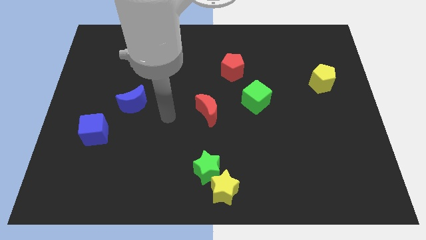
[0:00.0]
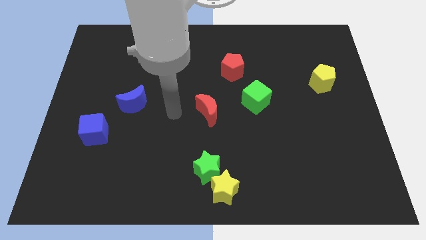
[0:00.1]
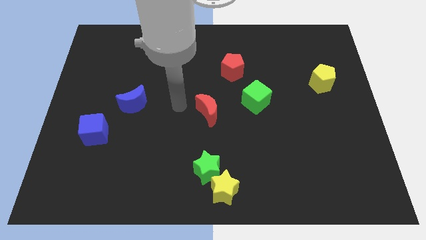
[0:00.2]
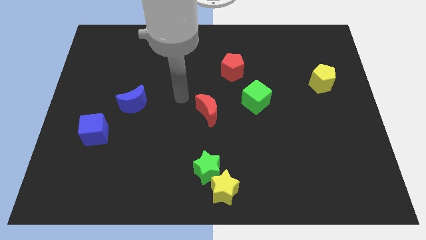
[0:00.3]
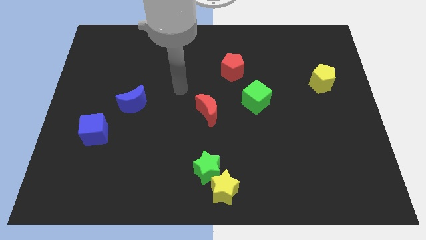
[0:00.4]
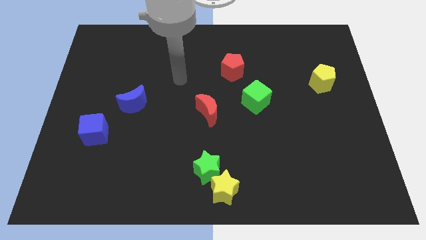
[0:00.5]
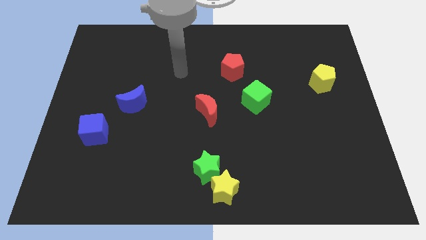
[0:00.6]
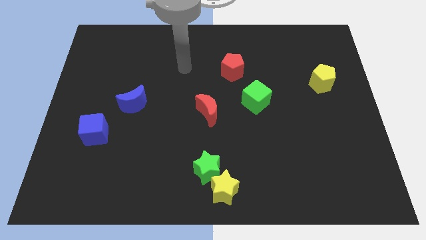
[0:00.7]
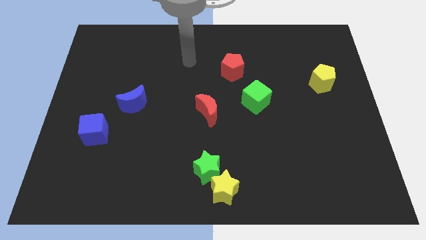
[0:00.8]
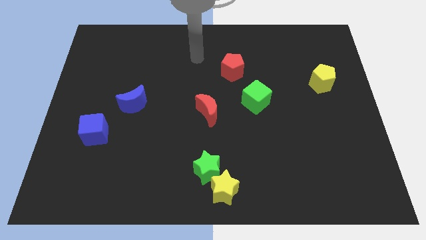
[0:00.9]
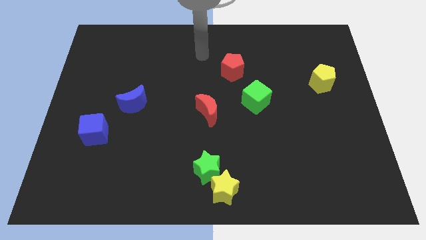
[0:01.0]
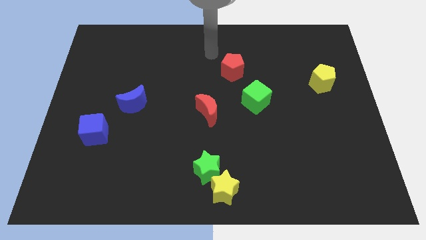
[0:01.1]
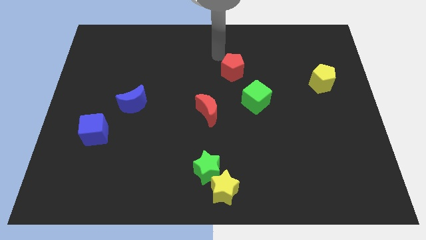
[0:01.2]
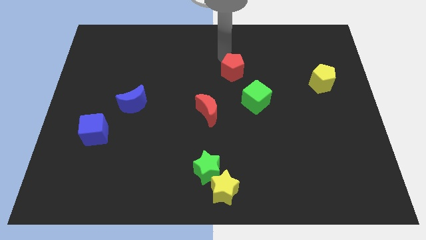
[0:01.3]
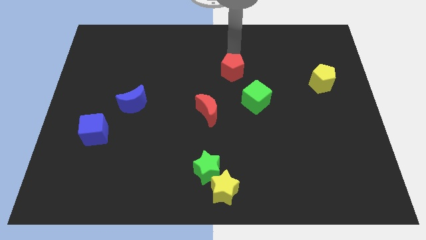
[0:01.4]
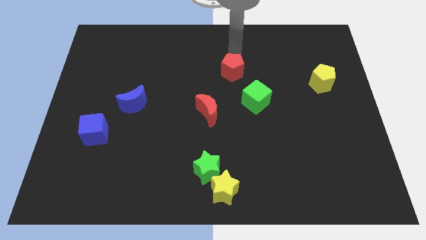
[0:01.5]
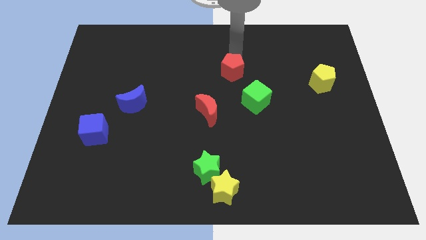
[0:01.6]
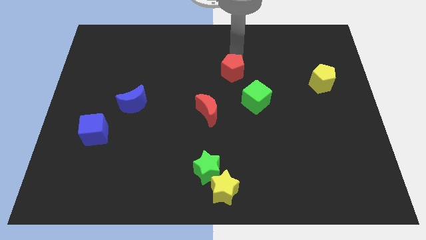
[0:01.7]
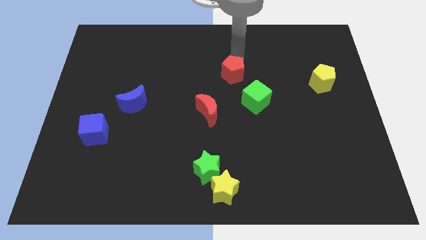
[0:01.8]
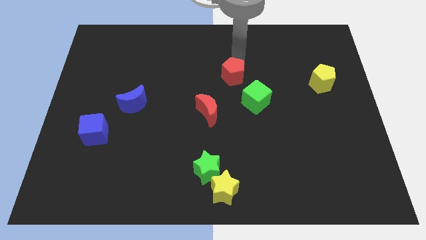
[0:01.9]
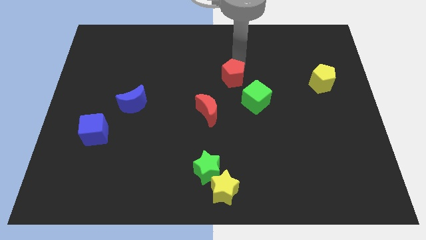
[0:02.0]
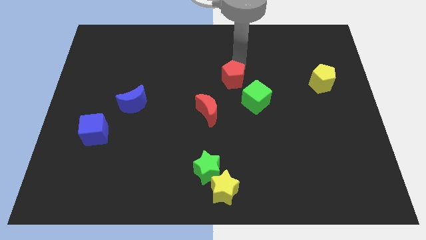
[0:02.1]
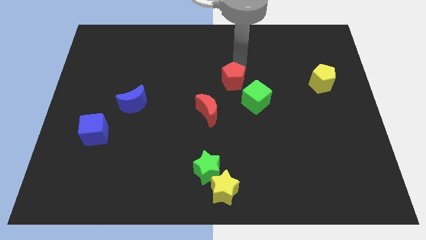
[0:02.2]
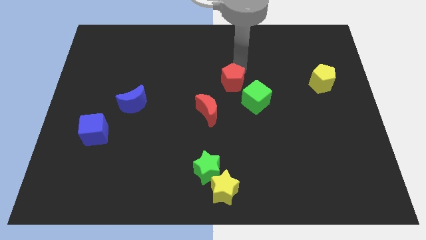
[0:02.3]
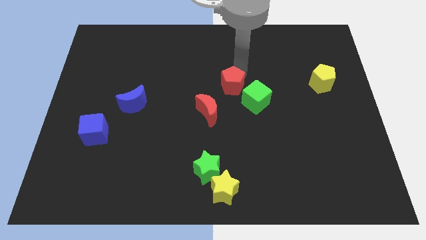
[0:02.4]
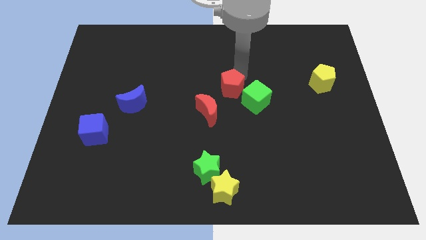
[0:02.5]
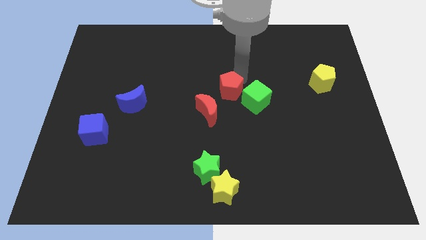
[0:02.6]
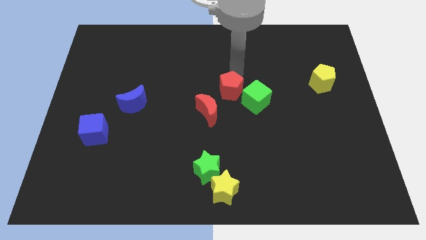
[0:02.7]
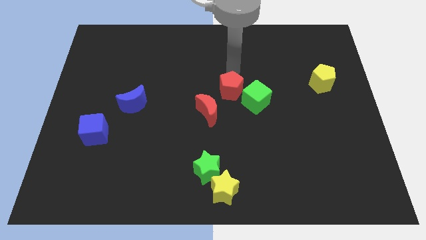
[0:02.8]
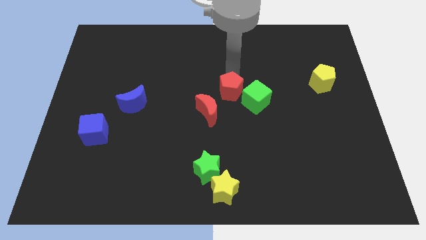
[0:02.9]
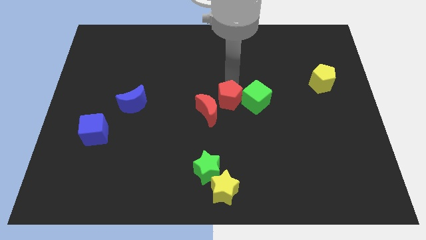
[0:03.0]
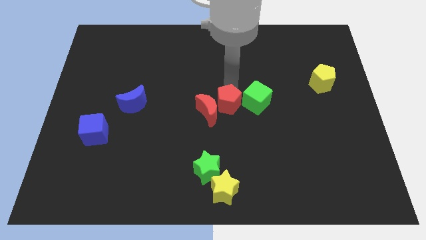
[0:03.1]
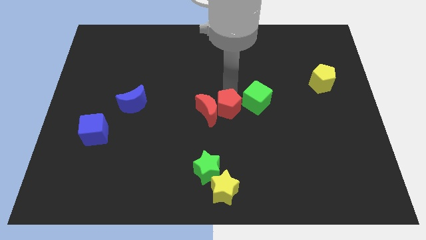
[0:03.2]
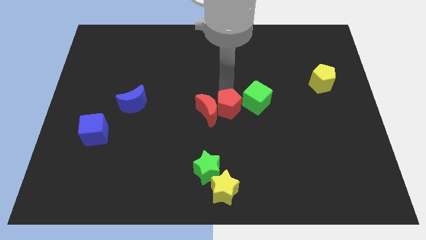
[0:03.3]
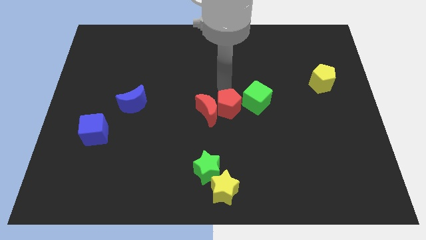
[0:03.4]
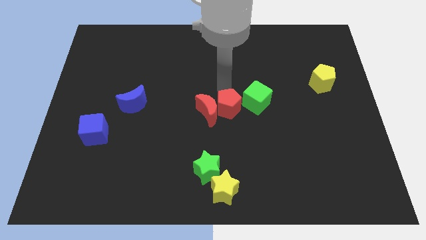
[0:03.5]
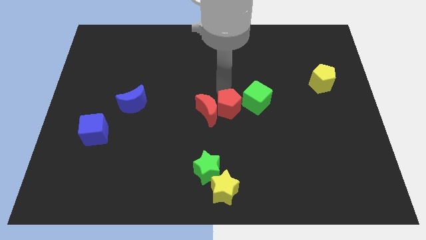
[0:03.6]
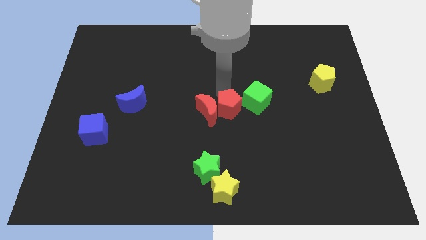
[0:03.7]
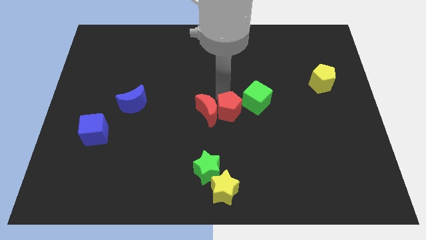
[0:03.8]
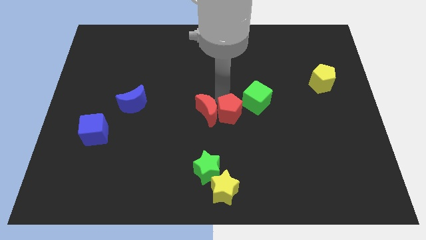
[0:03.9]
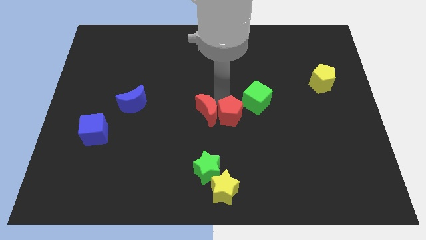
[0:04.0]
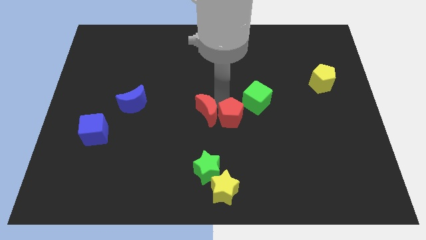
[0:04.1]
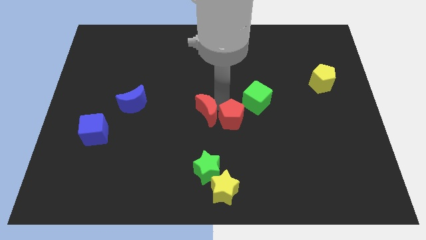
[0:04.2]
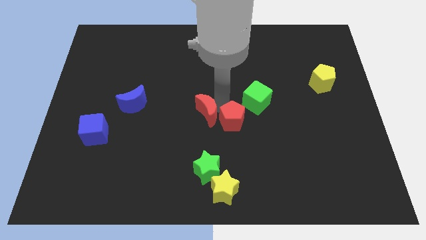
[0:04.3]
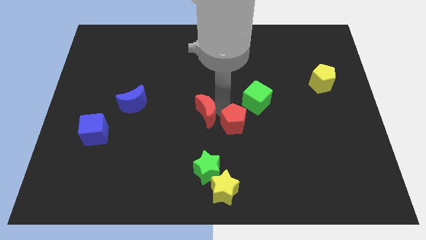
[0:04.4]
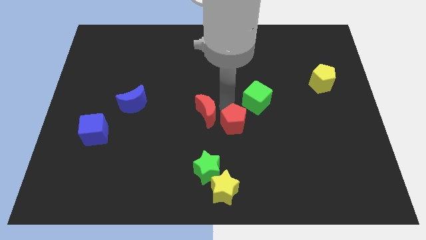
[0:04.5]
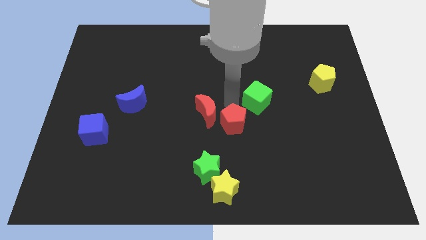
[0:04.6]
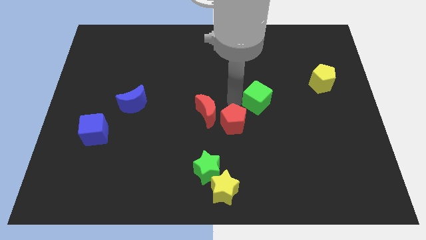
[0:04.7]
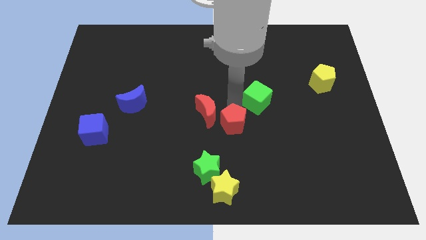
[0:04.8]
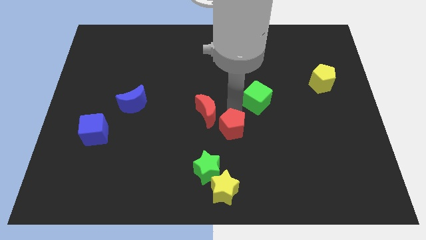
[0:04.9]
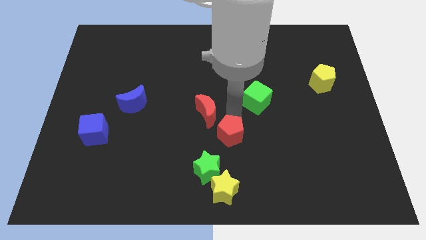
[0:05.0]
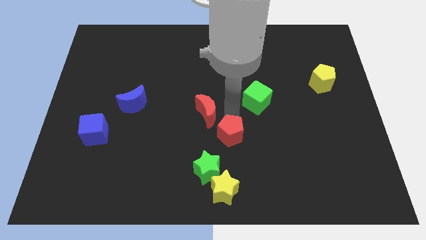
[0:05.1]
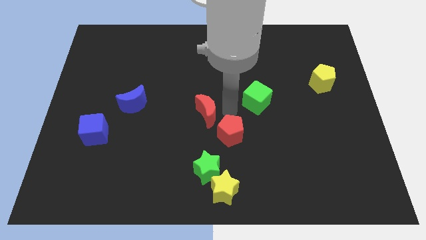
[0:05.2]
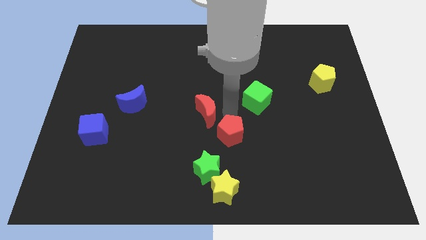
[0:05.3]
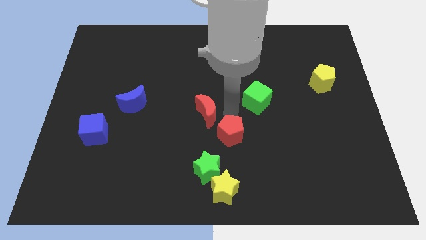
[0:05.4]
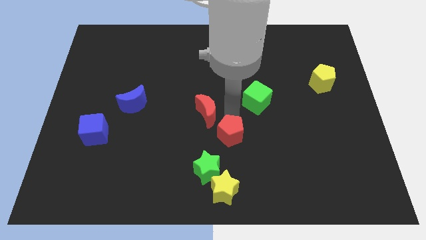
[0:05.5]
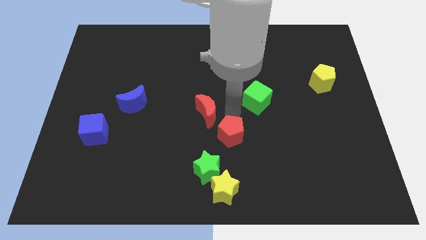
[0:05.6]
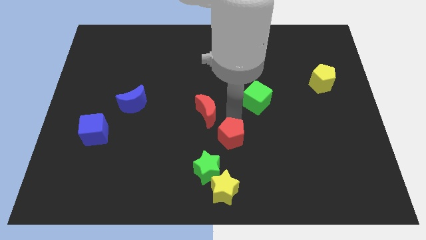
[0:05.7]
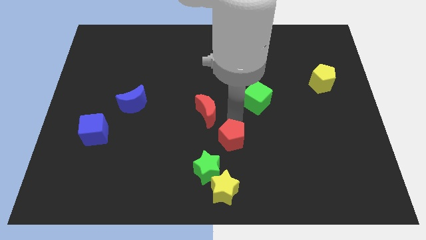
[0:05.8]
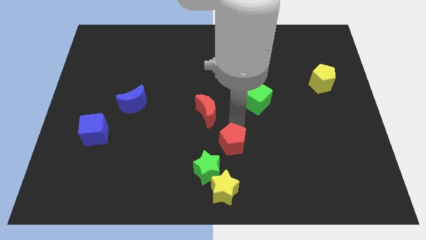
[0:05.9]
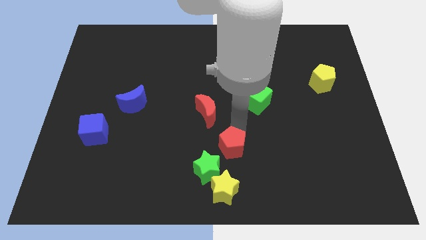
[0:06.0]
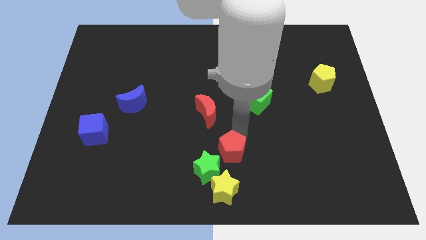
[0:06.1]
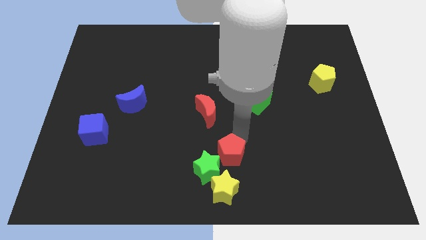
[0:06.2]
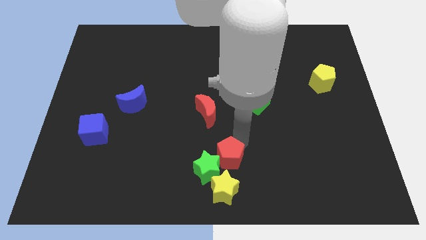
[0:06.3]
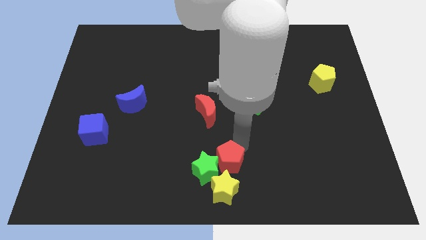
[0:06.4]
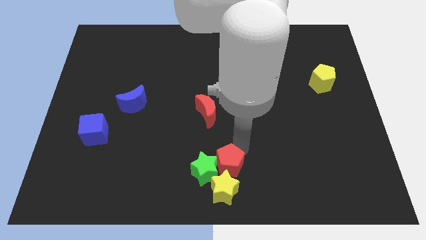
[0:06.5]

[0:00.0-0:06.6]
slide the red pentagon to the yellow star

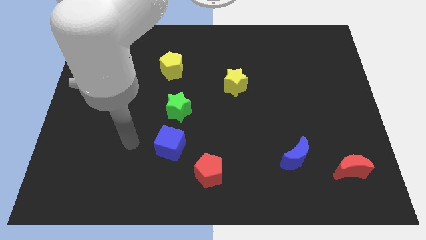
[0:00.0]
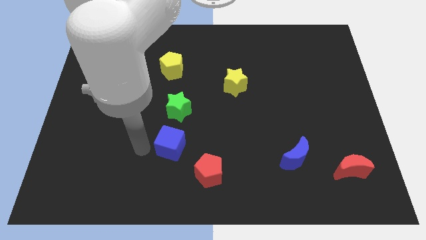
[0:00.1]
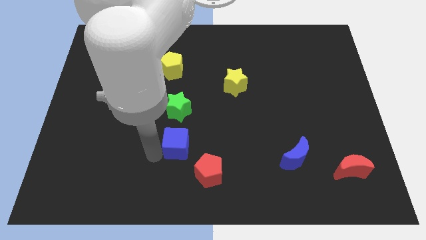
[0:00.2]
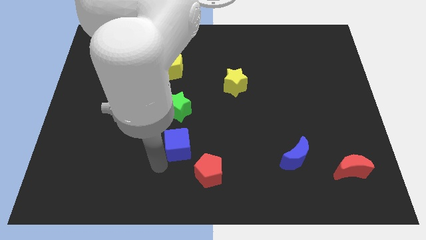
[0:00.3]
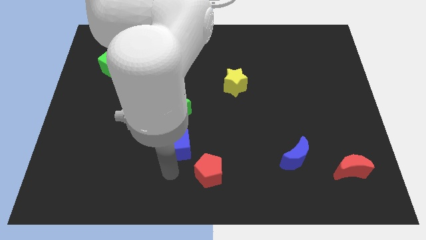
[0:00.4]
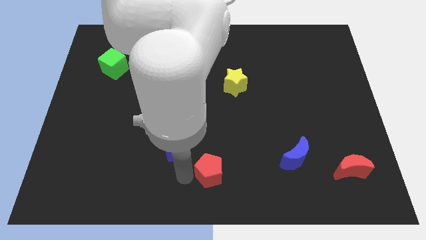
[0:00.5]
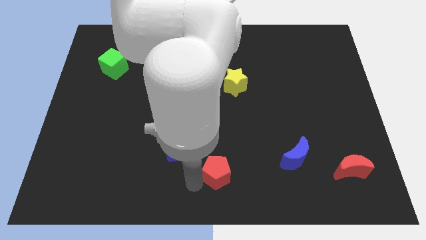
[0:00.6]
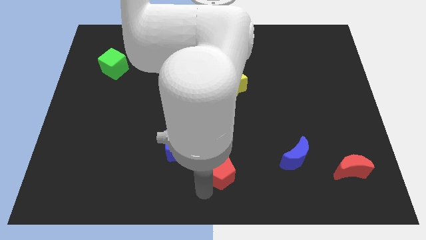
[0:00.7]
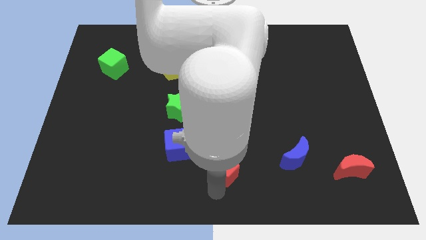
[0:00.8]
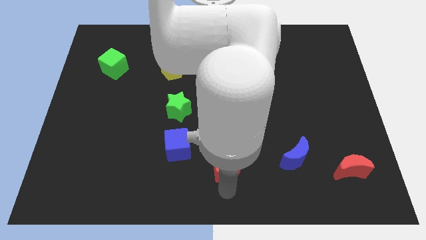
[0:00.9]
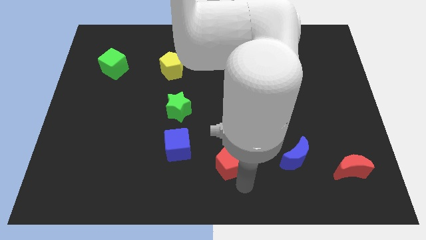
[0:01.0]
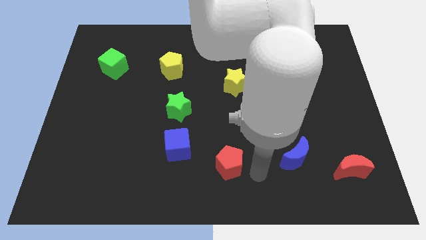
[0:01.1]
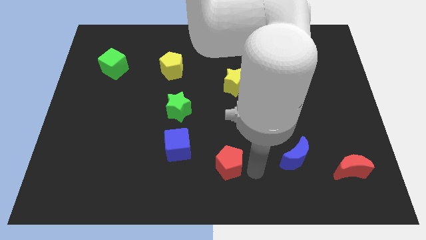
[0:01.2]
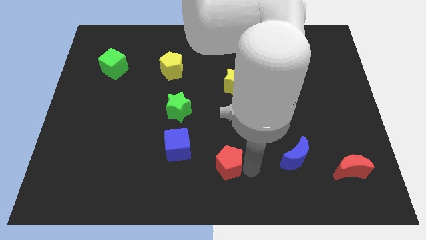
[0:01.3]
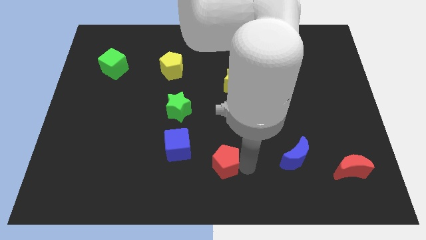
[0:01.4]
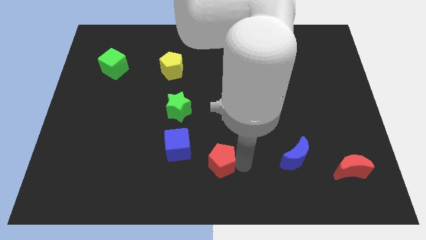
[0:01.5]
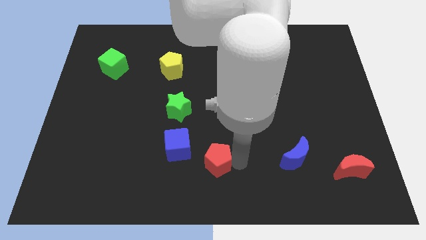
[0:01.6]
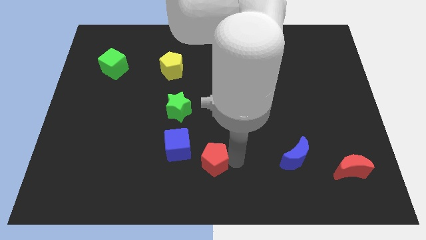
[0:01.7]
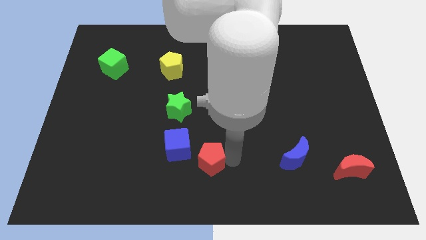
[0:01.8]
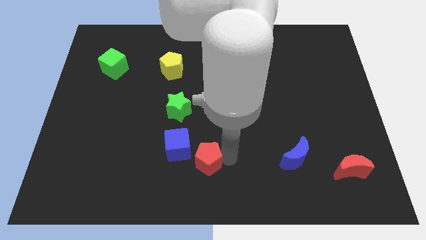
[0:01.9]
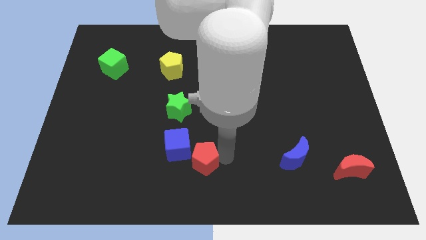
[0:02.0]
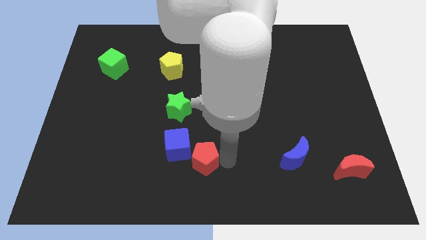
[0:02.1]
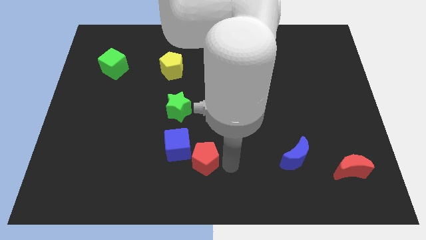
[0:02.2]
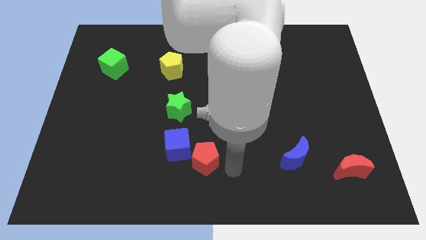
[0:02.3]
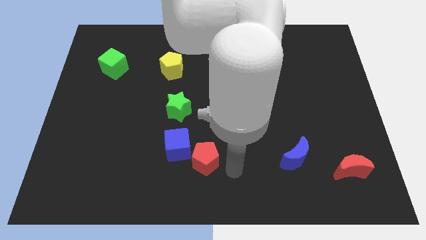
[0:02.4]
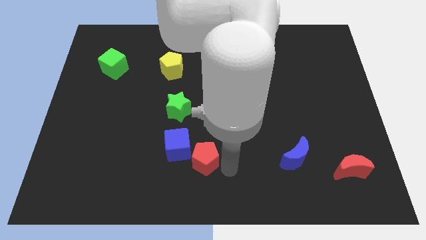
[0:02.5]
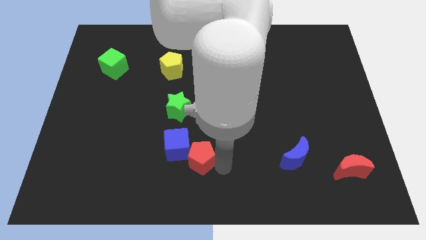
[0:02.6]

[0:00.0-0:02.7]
put the red pentagon to the blue cube
